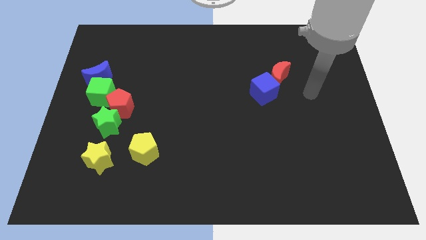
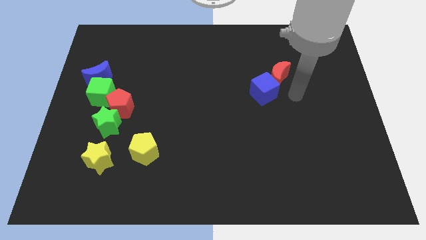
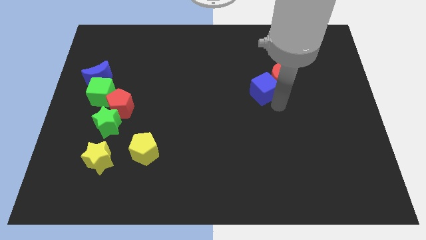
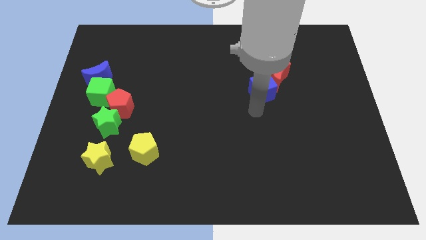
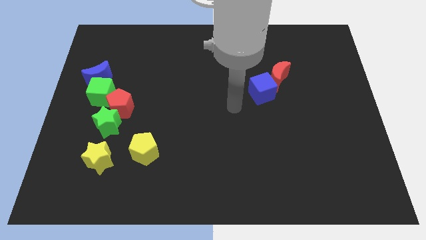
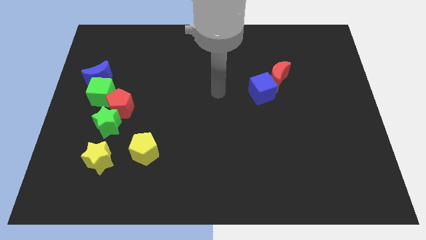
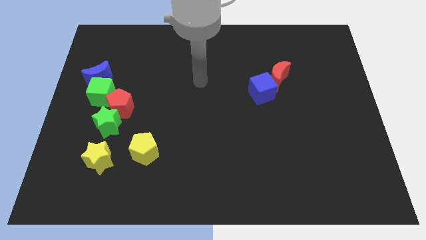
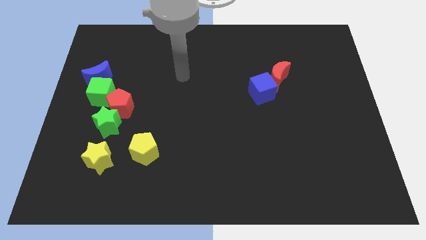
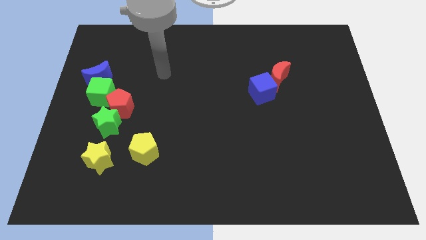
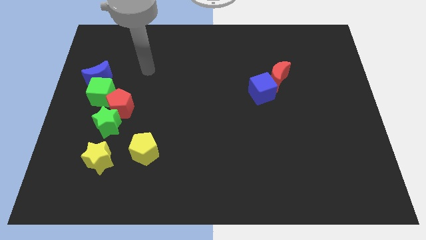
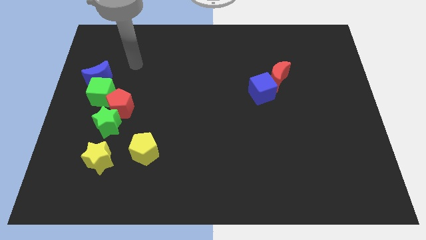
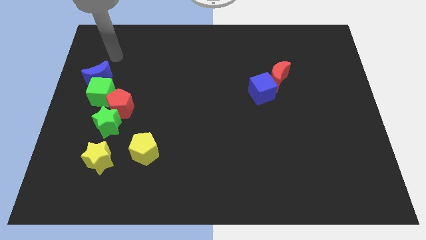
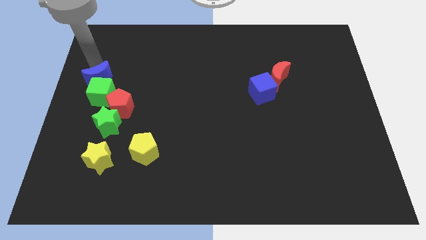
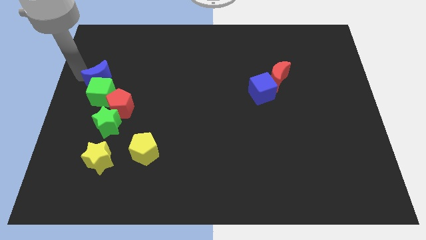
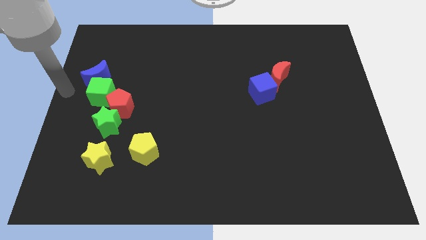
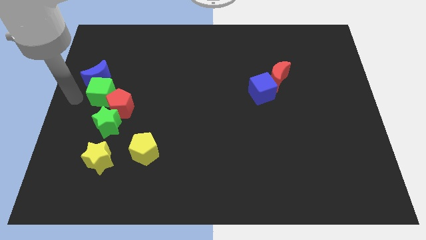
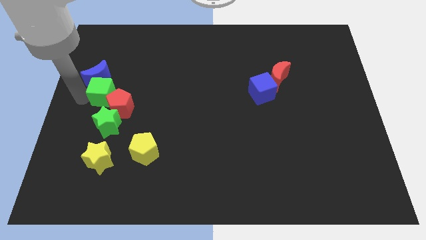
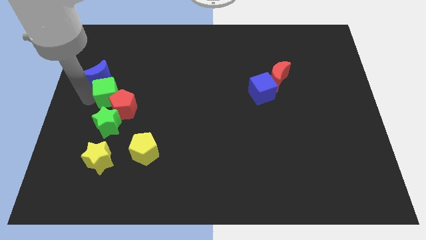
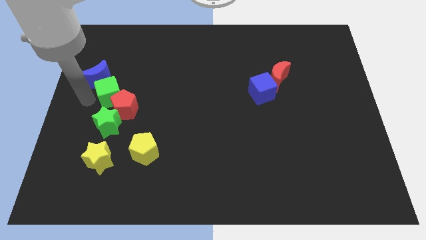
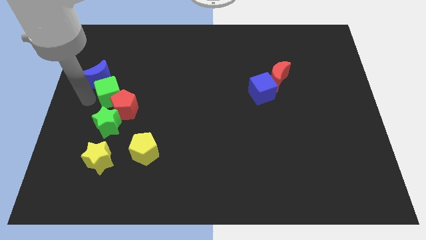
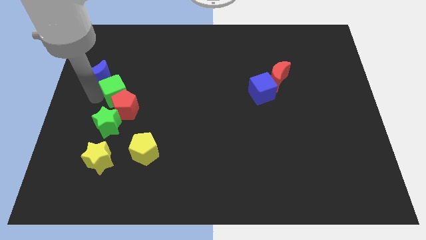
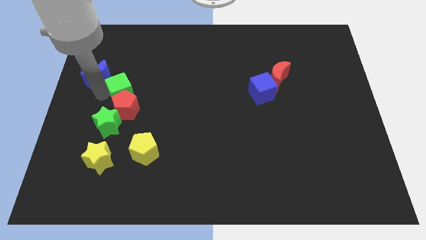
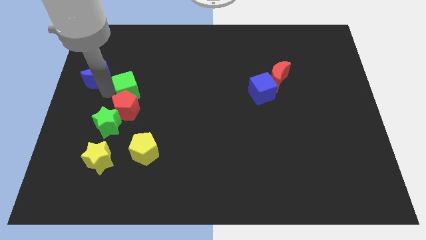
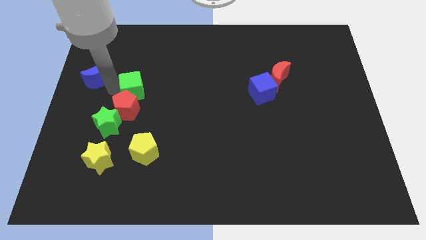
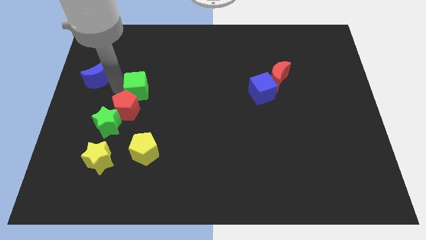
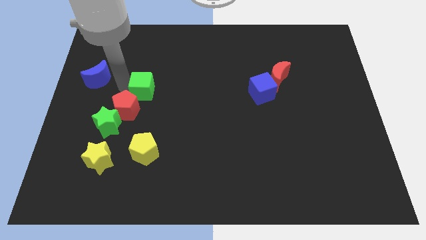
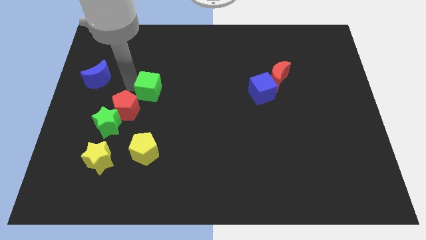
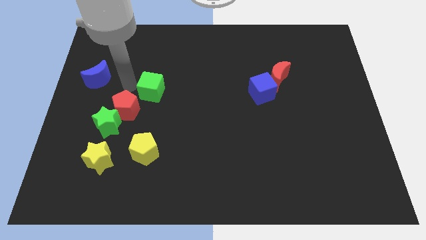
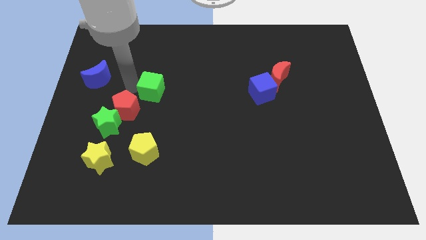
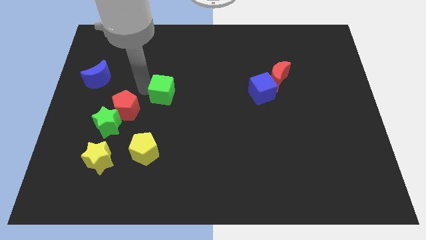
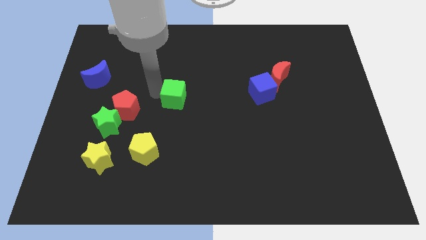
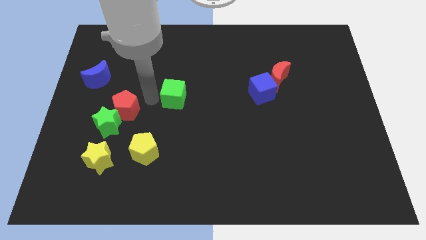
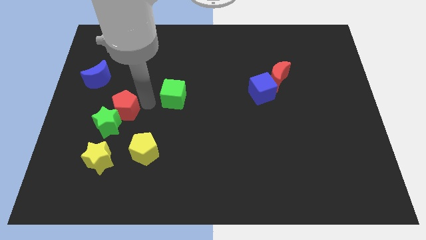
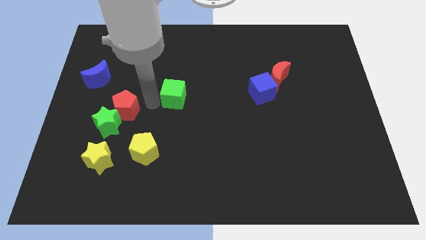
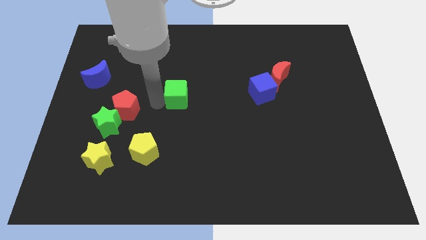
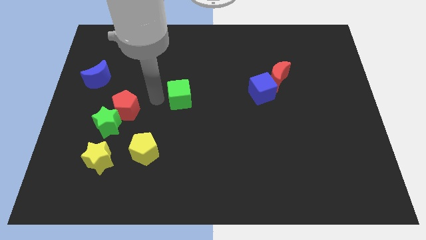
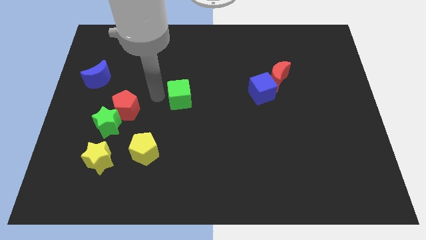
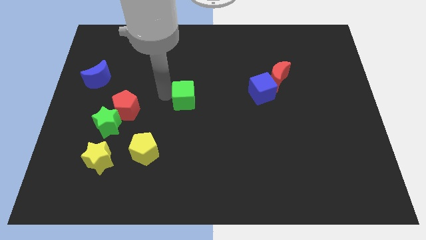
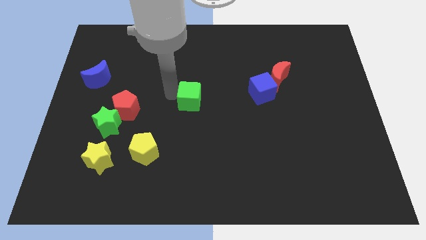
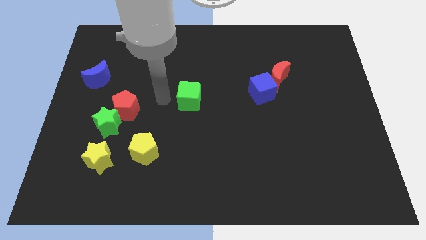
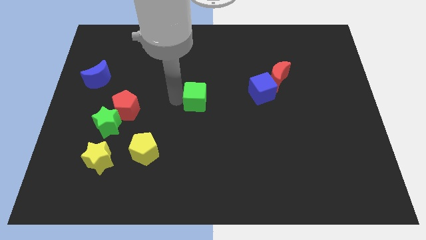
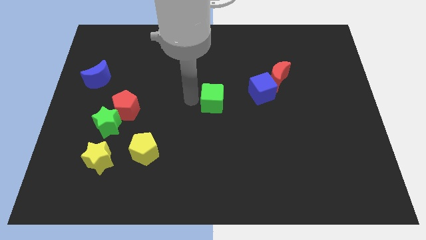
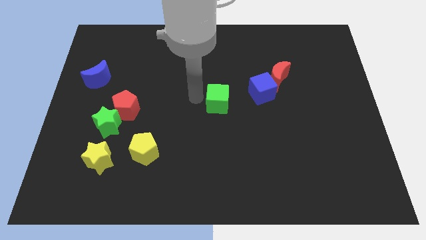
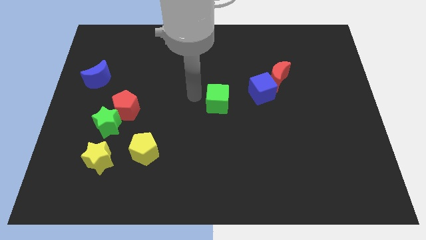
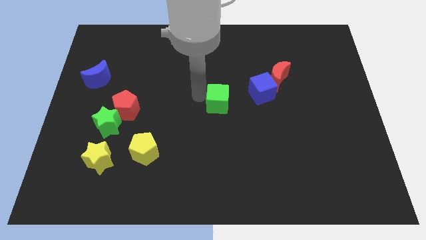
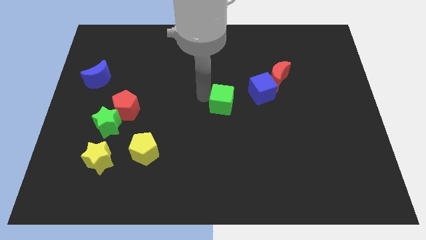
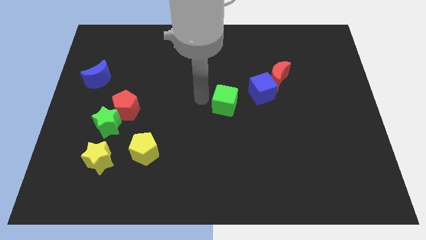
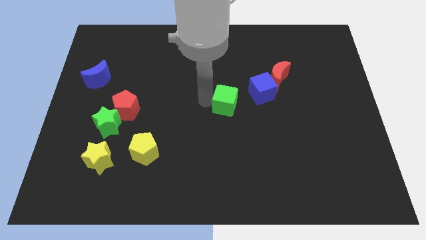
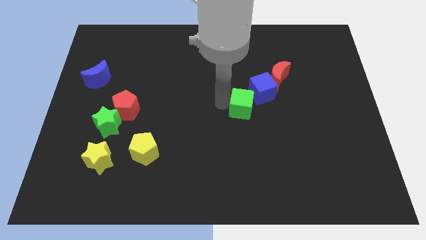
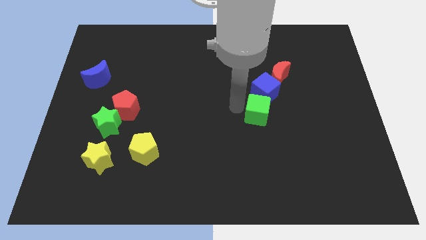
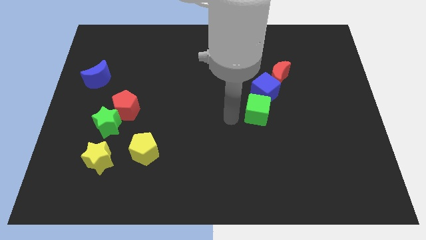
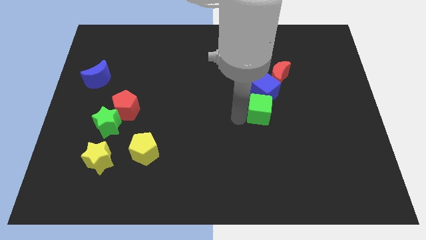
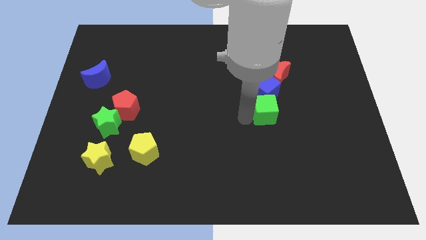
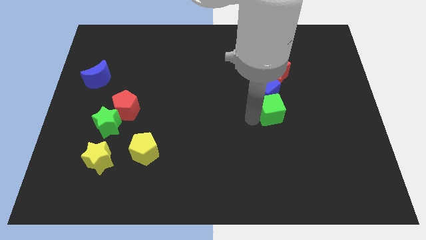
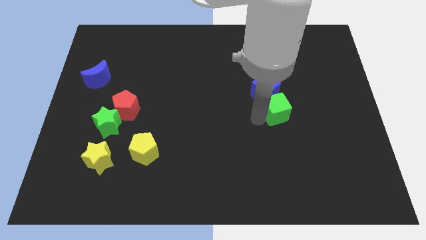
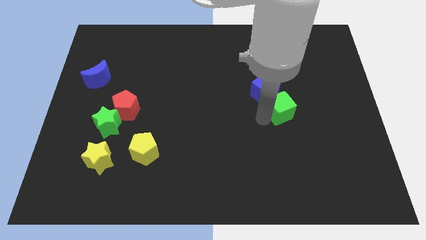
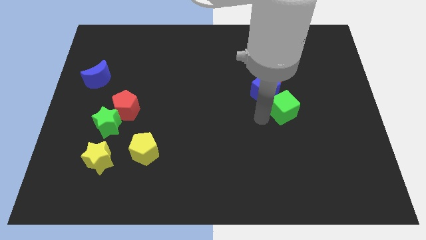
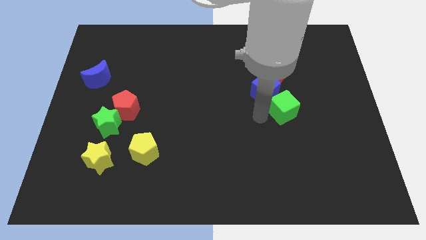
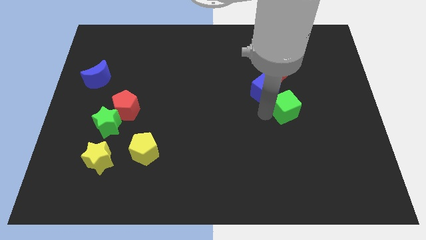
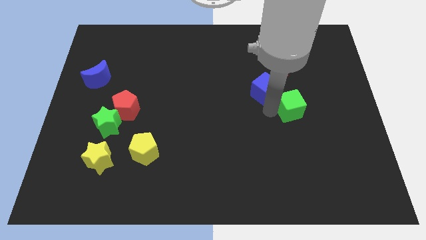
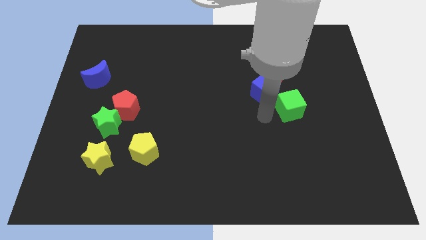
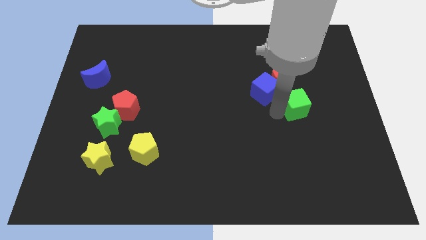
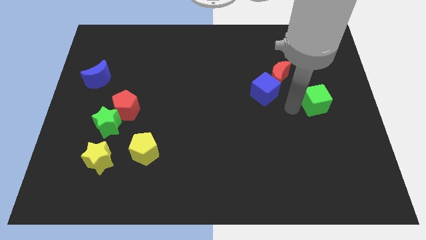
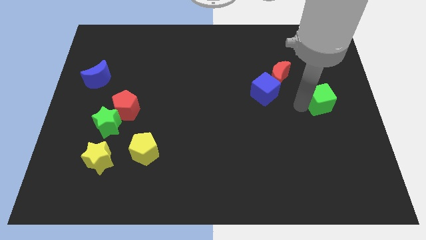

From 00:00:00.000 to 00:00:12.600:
move the green cube to the right side of the board
